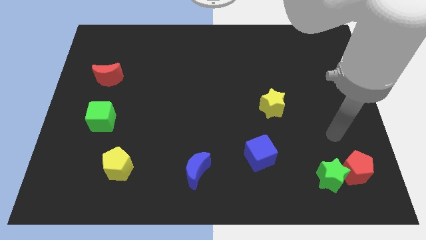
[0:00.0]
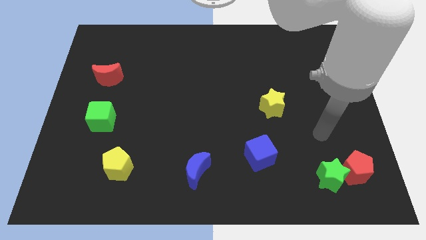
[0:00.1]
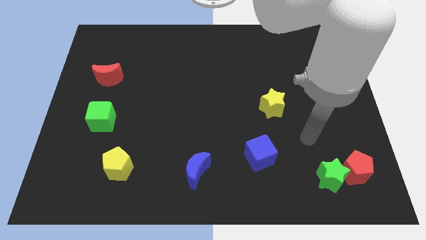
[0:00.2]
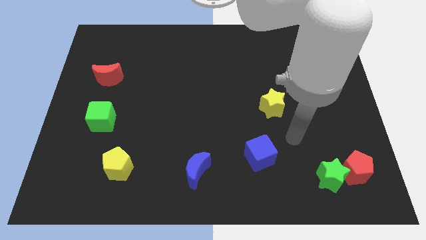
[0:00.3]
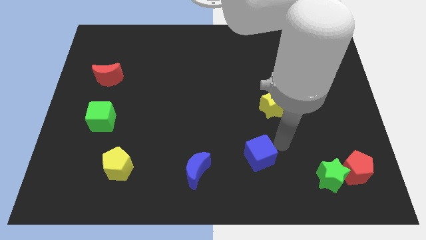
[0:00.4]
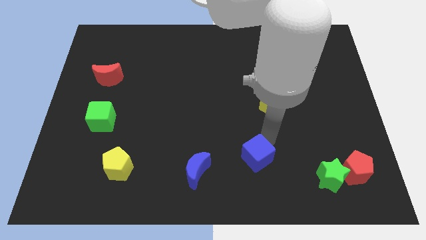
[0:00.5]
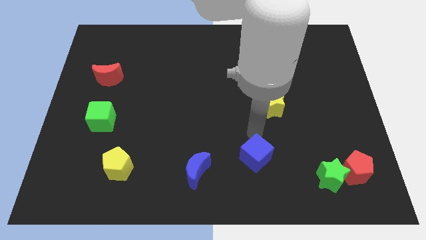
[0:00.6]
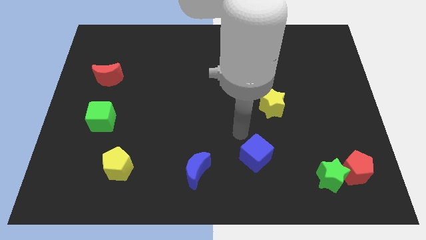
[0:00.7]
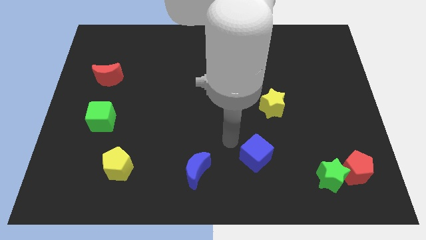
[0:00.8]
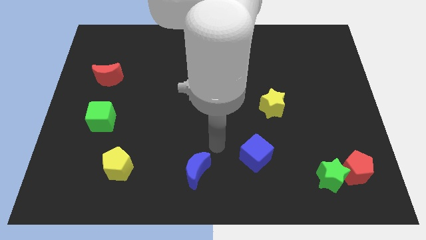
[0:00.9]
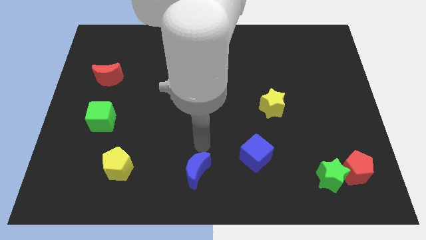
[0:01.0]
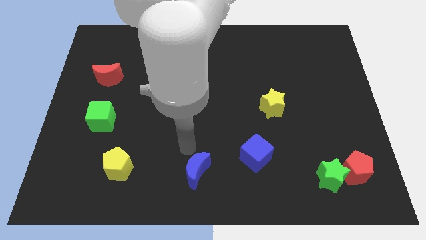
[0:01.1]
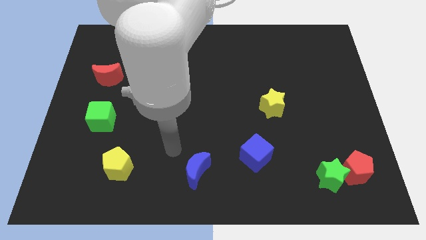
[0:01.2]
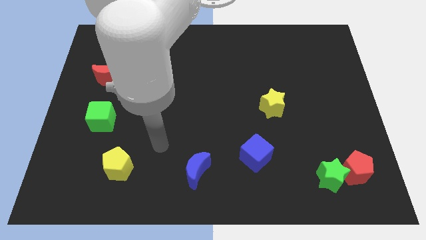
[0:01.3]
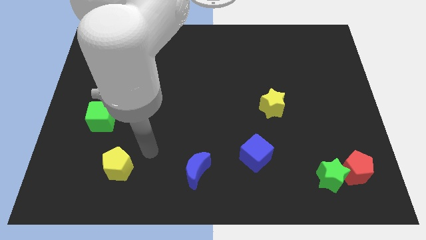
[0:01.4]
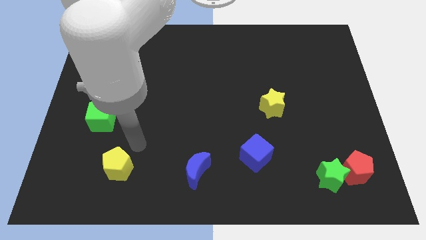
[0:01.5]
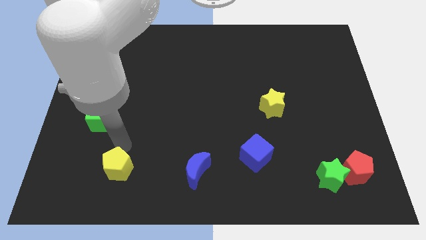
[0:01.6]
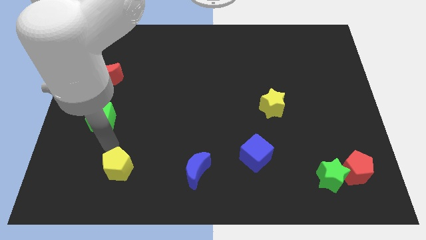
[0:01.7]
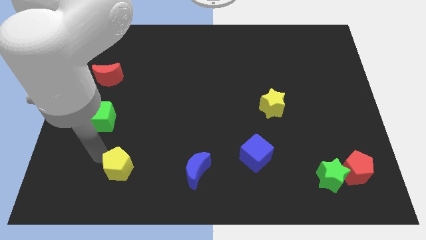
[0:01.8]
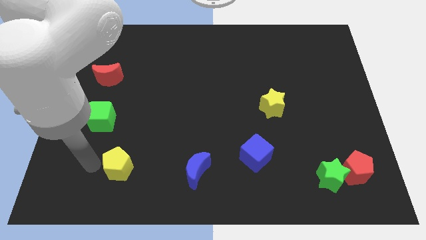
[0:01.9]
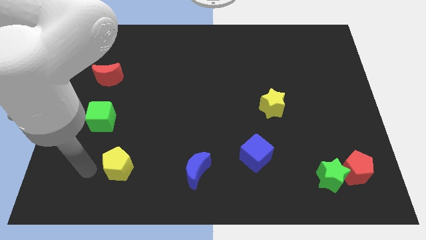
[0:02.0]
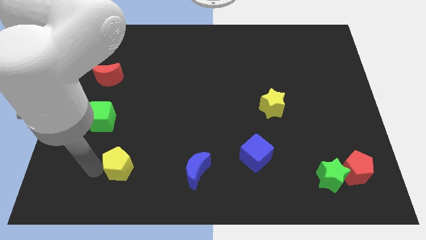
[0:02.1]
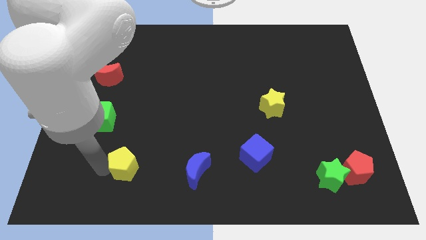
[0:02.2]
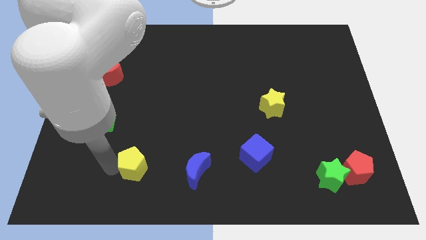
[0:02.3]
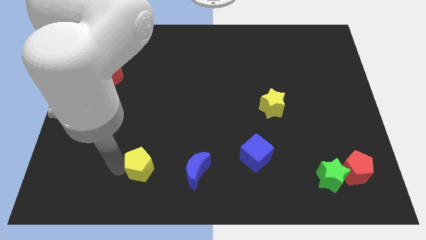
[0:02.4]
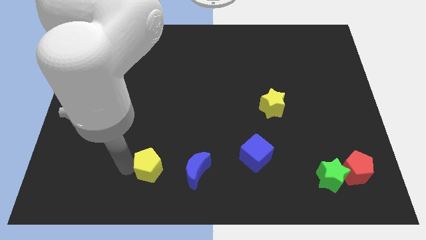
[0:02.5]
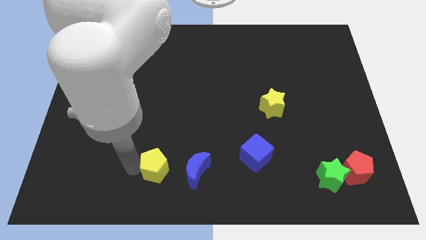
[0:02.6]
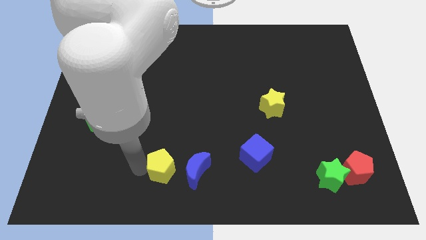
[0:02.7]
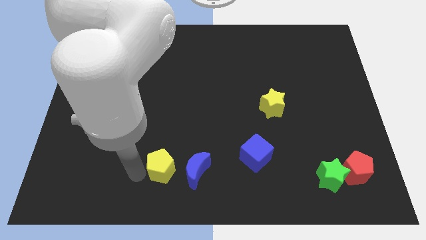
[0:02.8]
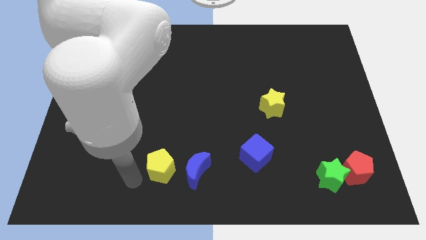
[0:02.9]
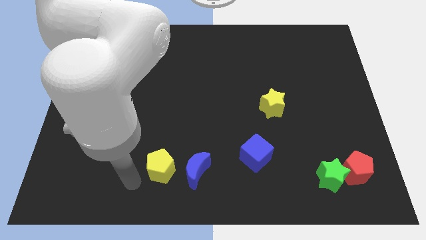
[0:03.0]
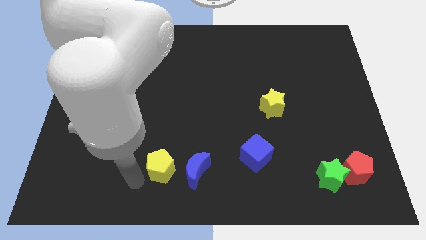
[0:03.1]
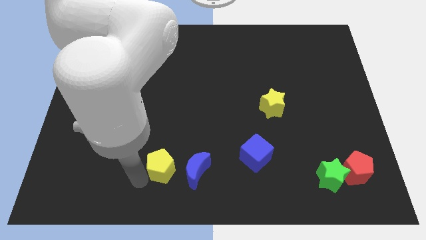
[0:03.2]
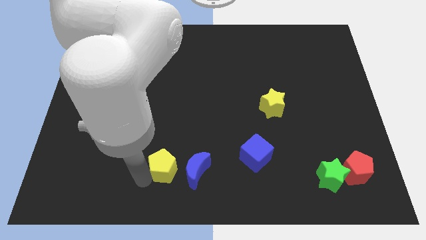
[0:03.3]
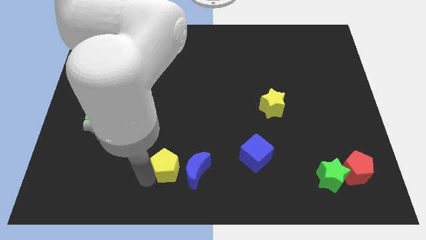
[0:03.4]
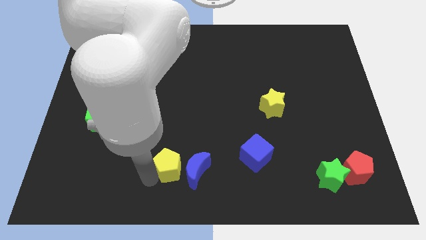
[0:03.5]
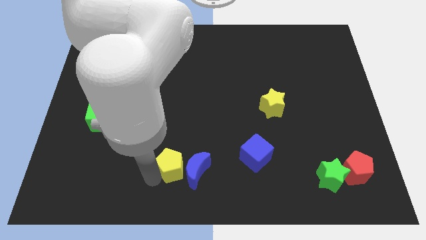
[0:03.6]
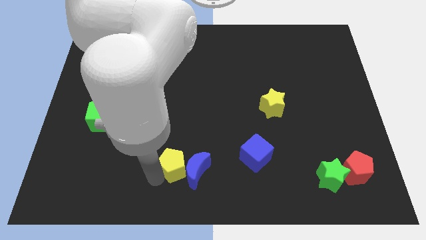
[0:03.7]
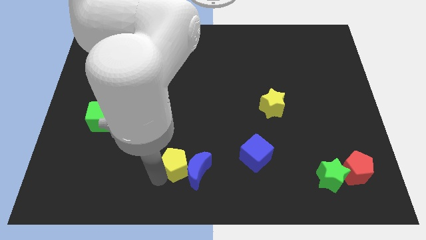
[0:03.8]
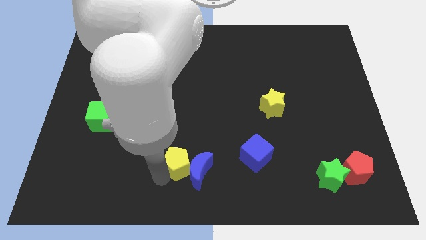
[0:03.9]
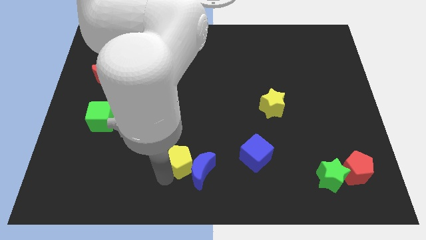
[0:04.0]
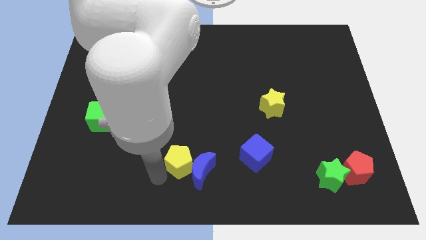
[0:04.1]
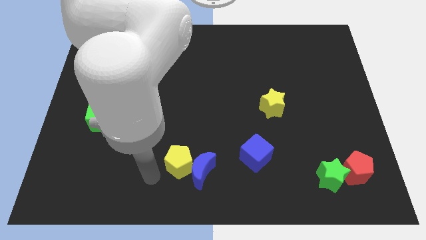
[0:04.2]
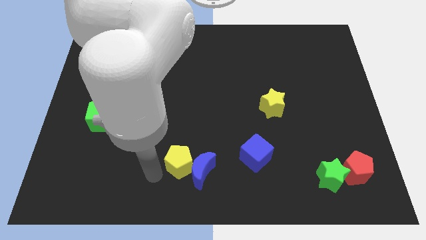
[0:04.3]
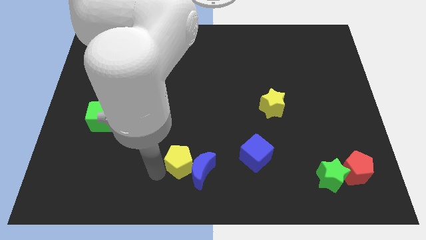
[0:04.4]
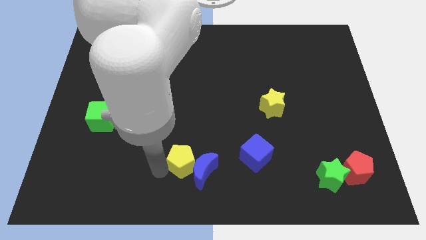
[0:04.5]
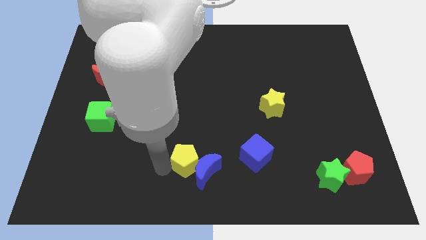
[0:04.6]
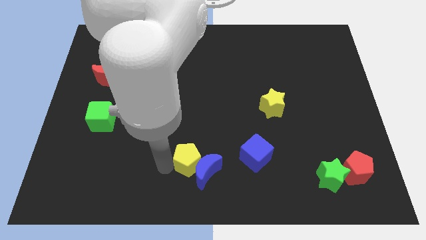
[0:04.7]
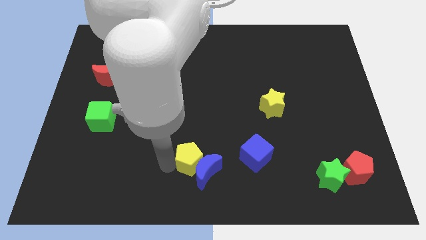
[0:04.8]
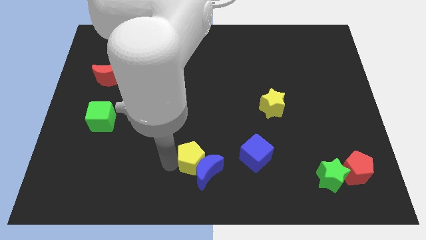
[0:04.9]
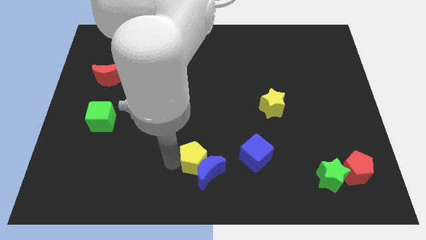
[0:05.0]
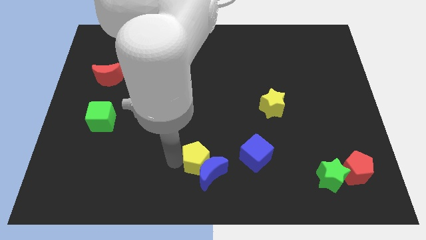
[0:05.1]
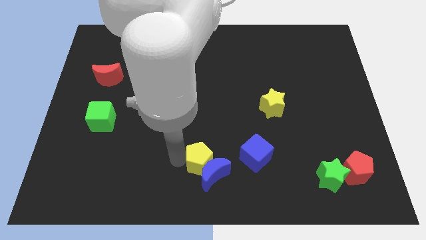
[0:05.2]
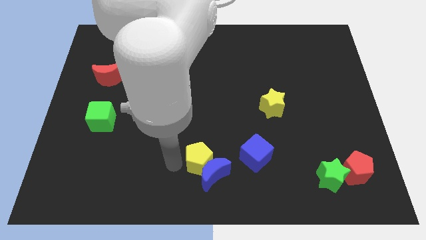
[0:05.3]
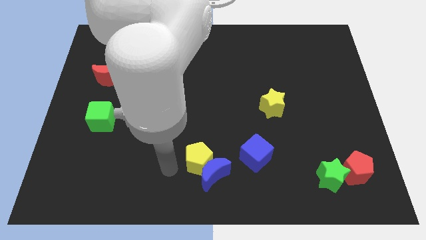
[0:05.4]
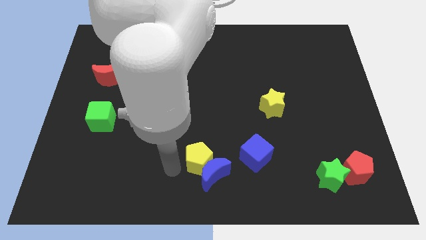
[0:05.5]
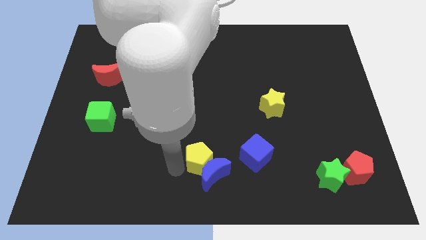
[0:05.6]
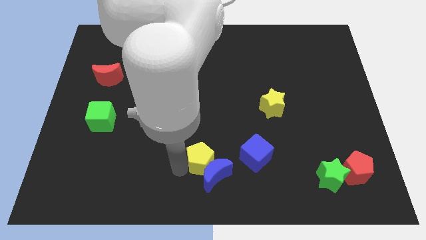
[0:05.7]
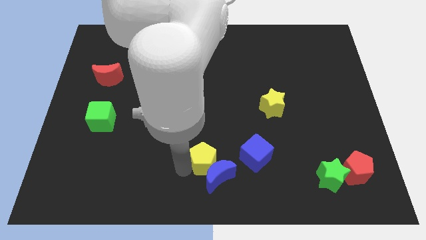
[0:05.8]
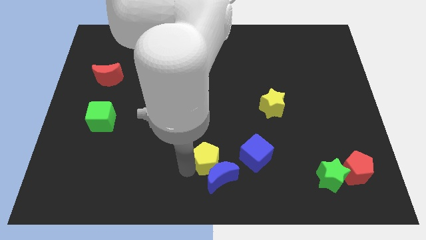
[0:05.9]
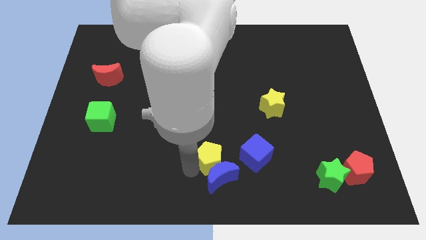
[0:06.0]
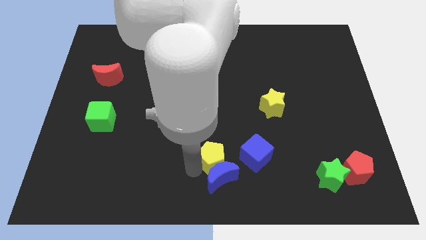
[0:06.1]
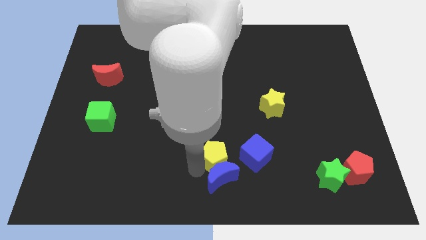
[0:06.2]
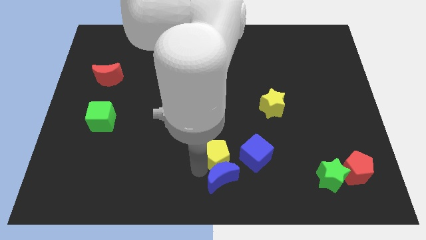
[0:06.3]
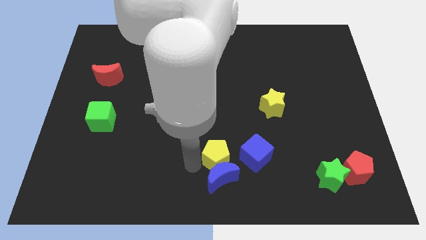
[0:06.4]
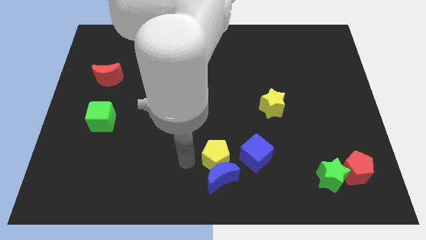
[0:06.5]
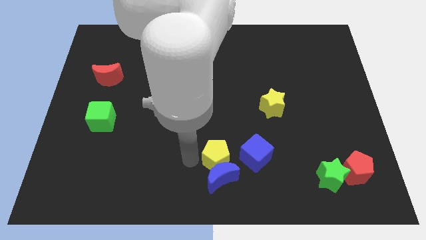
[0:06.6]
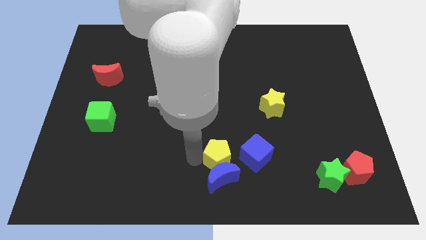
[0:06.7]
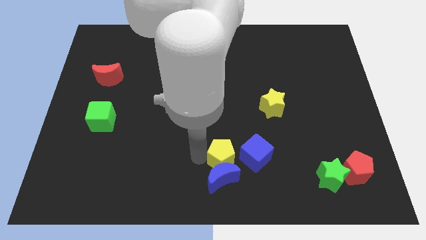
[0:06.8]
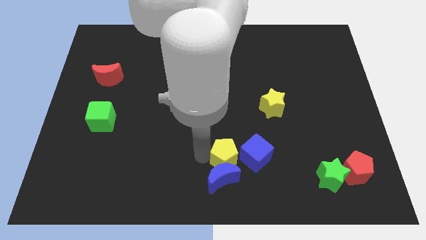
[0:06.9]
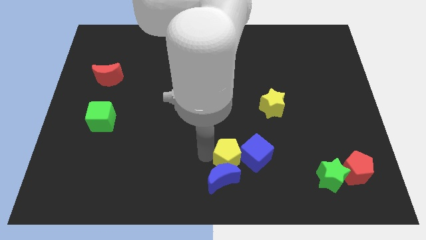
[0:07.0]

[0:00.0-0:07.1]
put the yellow pentagon towards the blue cube

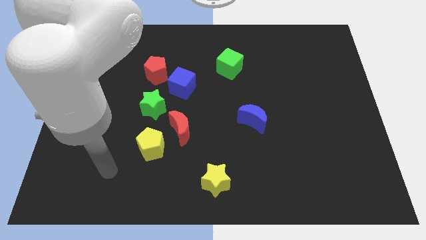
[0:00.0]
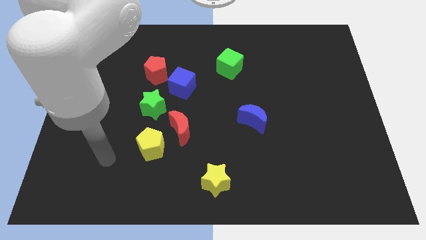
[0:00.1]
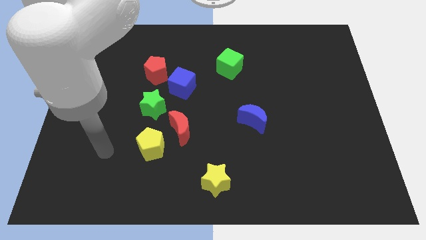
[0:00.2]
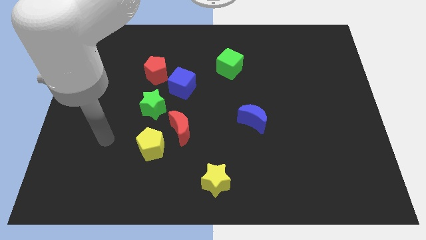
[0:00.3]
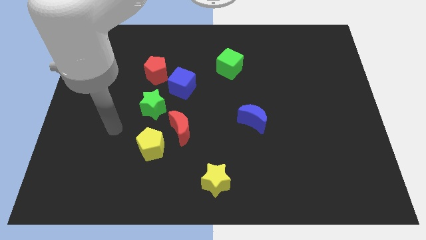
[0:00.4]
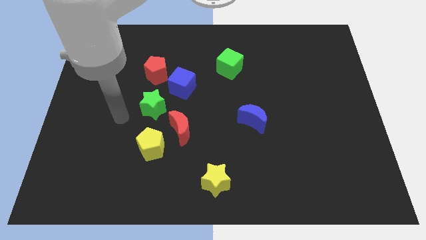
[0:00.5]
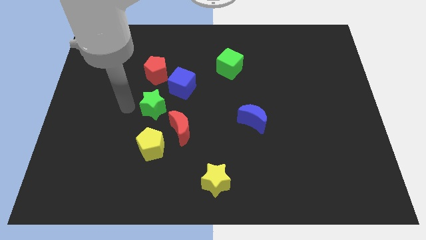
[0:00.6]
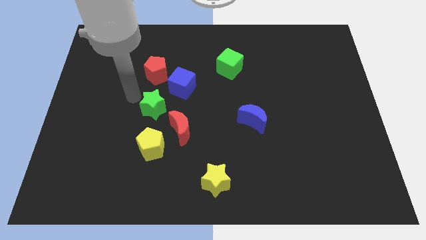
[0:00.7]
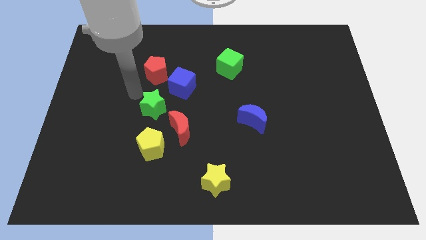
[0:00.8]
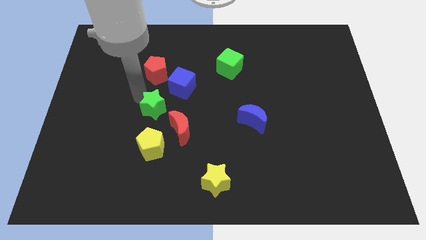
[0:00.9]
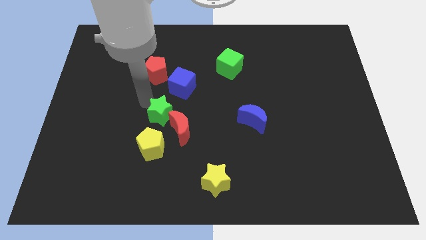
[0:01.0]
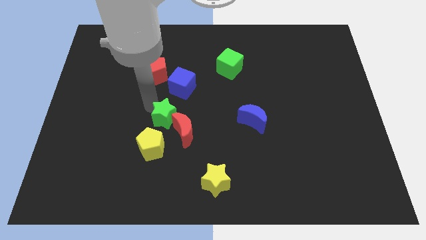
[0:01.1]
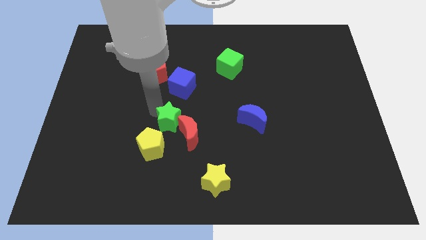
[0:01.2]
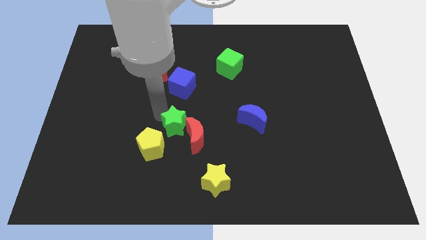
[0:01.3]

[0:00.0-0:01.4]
push the green star close to the red moon
